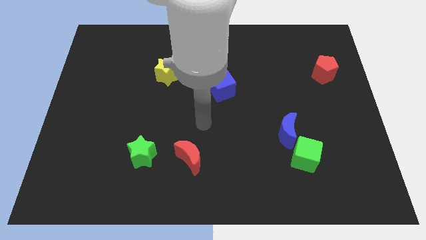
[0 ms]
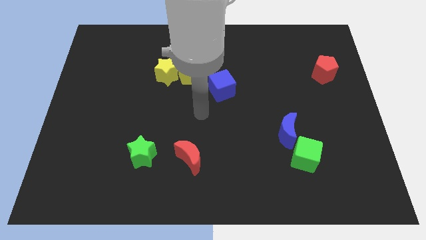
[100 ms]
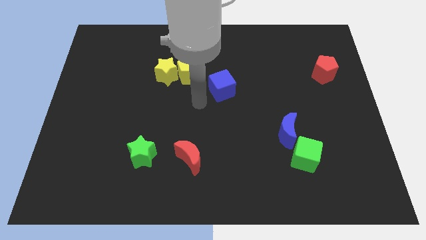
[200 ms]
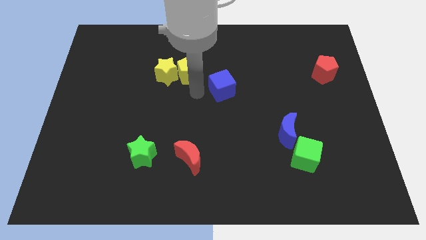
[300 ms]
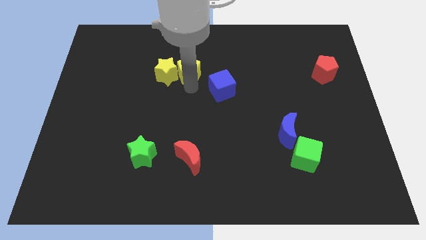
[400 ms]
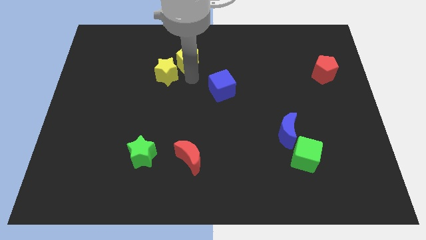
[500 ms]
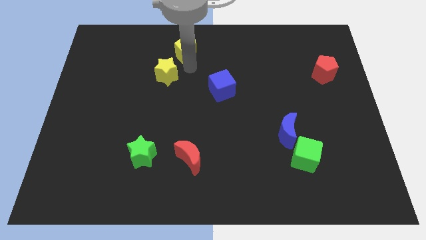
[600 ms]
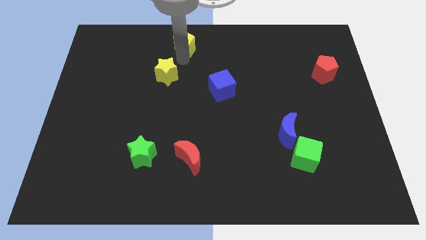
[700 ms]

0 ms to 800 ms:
move the yellow star away from the yellow pentagon

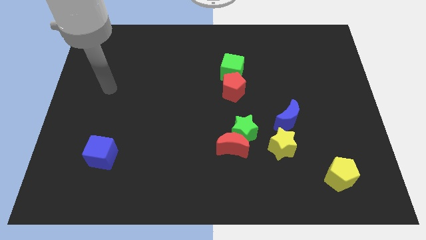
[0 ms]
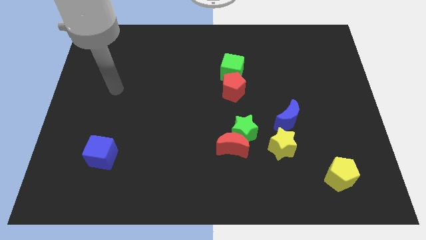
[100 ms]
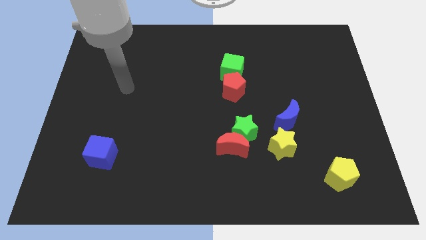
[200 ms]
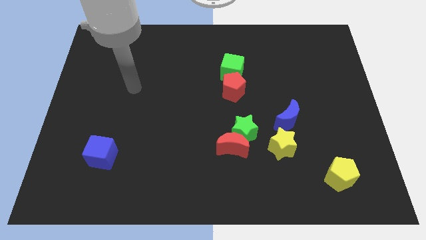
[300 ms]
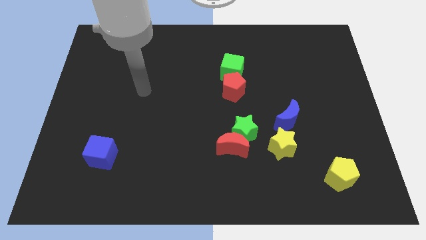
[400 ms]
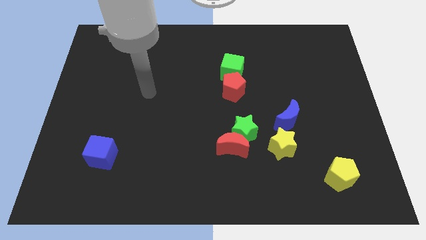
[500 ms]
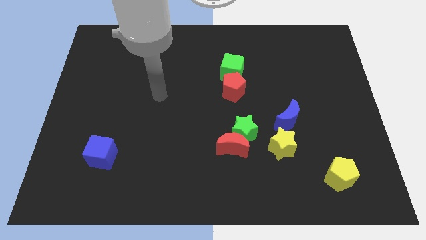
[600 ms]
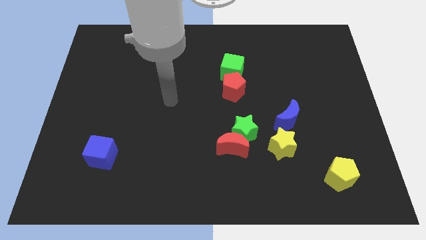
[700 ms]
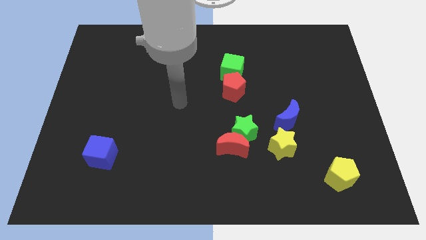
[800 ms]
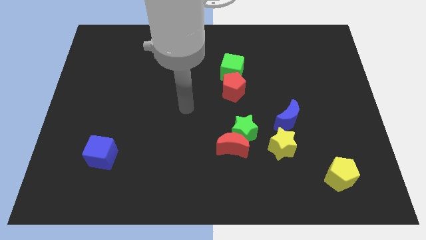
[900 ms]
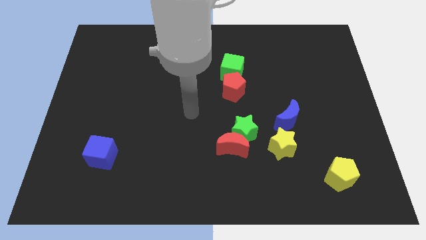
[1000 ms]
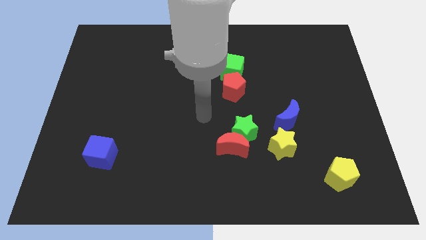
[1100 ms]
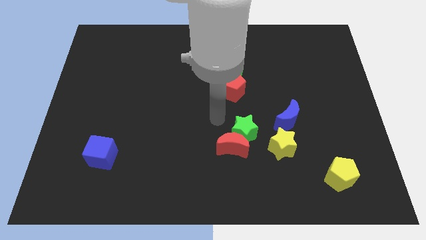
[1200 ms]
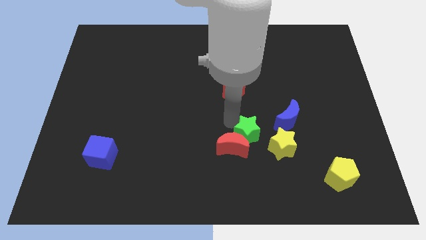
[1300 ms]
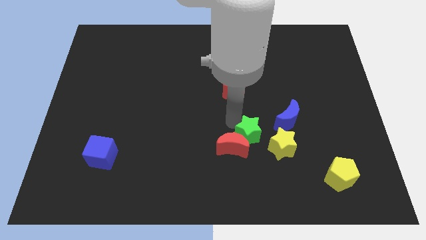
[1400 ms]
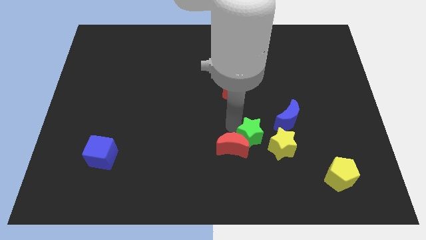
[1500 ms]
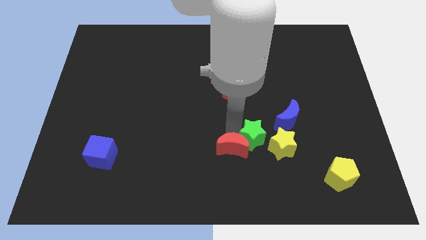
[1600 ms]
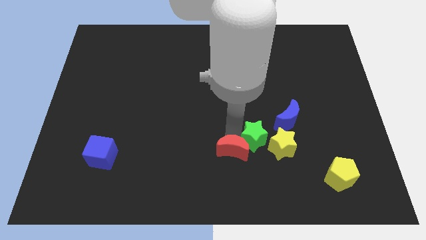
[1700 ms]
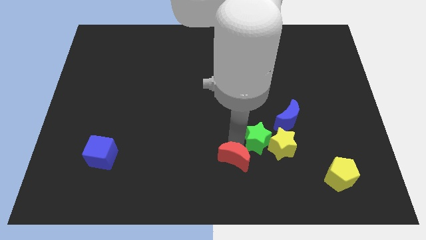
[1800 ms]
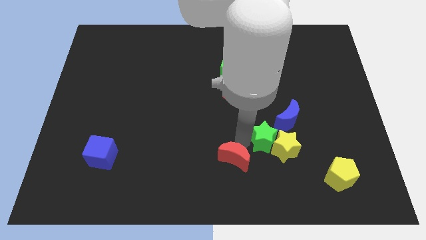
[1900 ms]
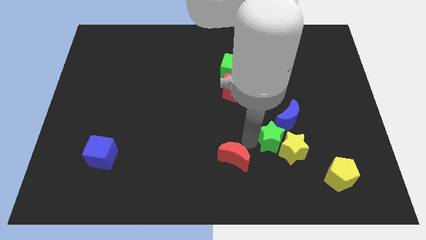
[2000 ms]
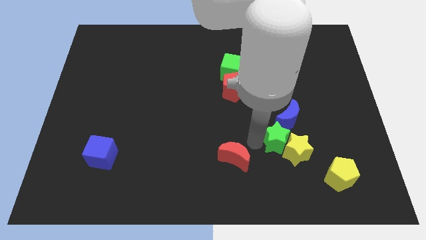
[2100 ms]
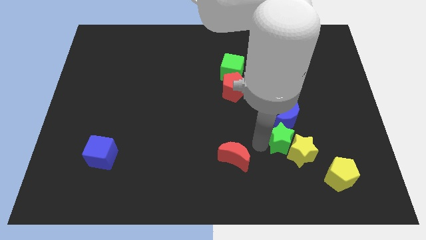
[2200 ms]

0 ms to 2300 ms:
separate the red moon from the green star

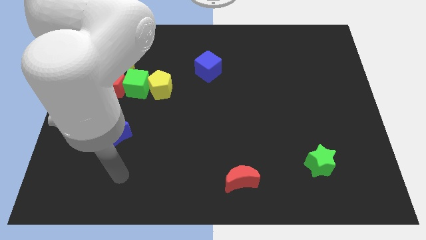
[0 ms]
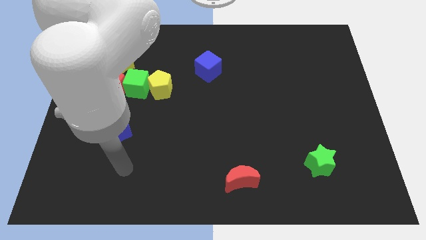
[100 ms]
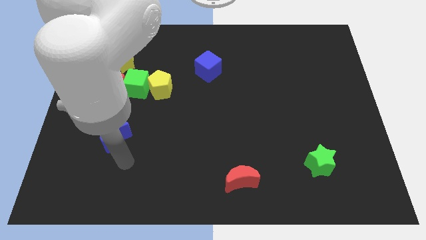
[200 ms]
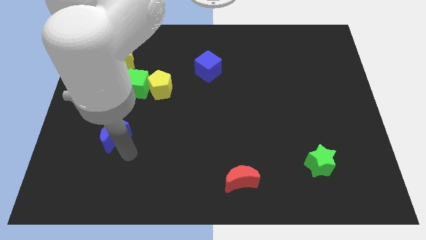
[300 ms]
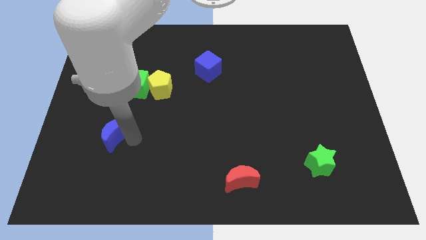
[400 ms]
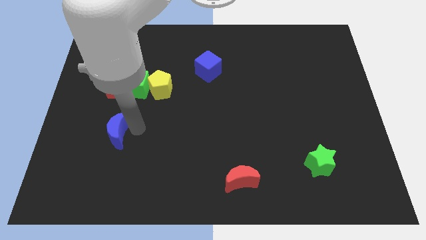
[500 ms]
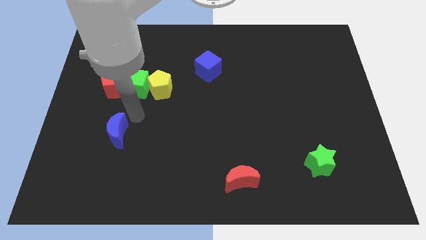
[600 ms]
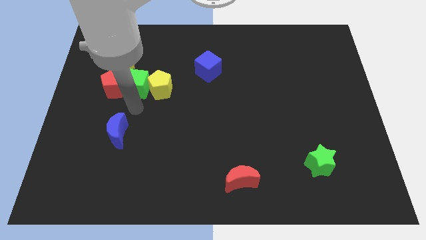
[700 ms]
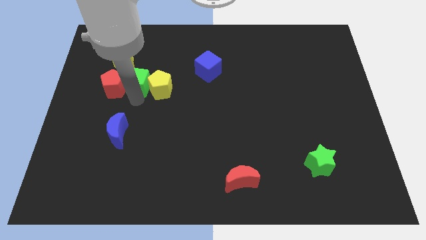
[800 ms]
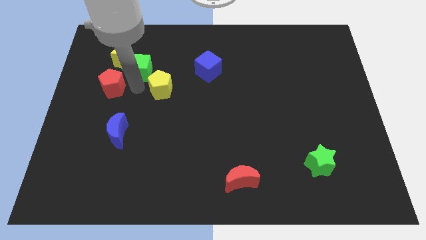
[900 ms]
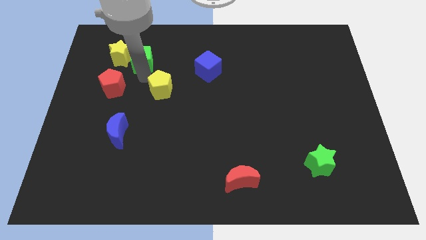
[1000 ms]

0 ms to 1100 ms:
move the yellow pentagon away from the green cube

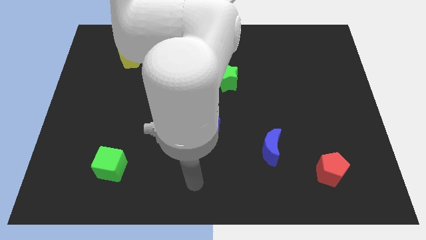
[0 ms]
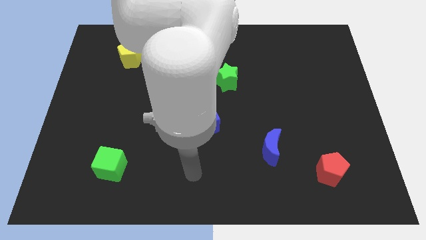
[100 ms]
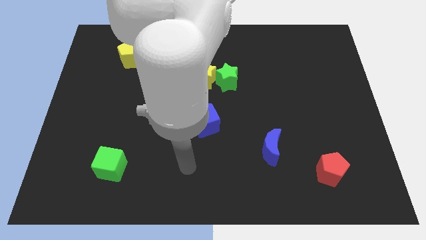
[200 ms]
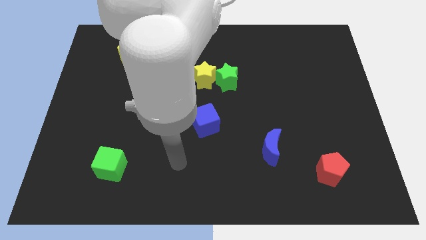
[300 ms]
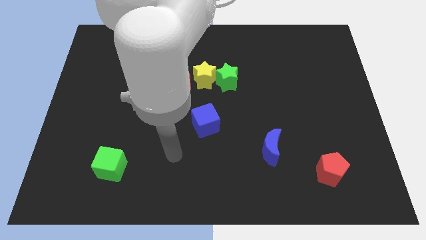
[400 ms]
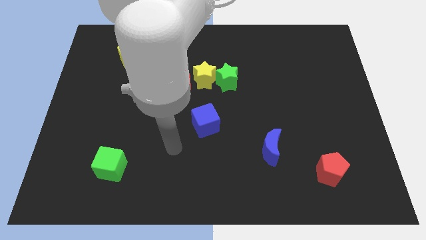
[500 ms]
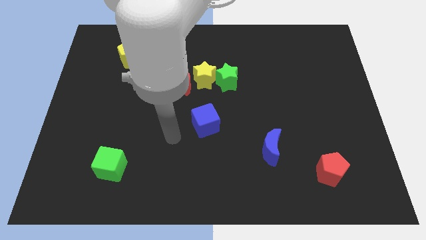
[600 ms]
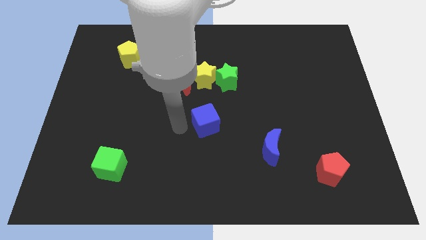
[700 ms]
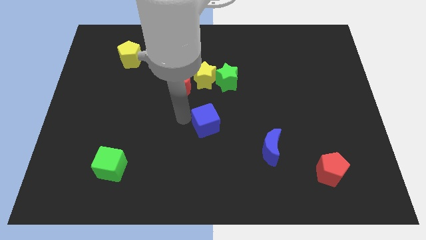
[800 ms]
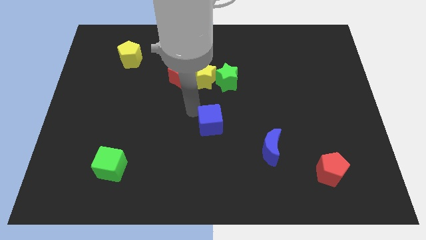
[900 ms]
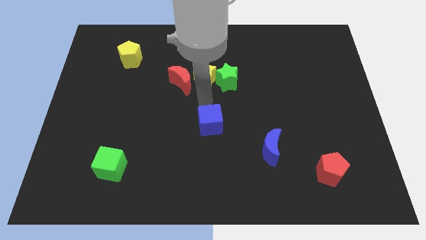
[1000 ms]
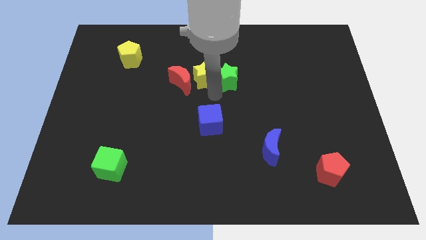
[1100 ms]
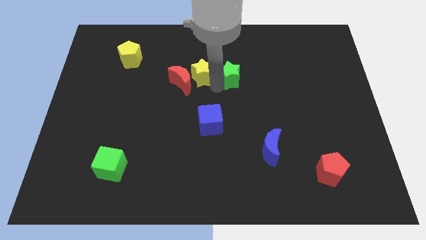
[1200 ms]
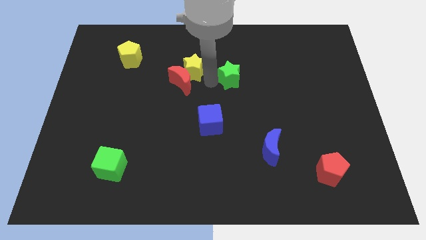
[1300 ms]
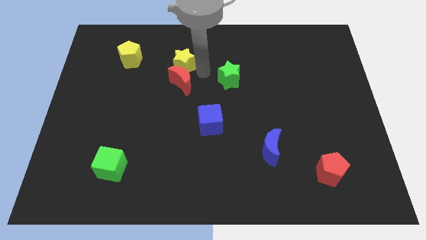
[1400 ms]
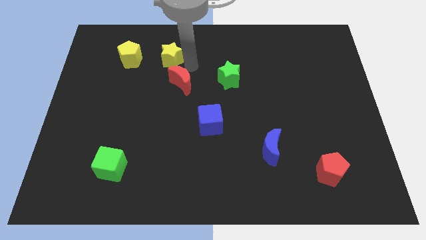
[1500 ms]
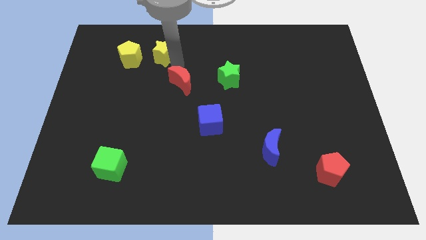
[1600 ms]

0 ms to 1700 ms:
separate the red moon from the yellow star

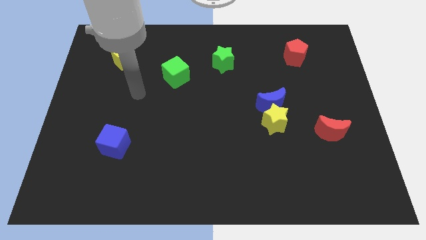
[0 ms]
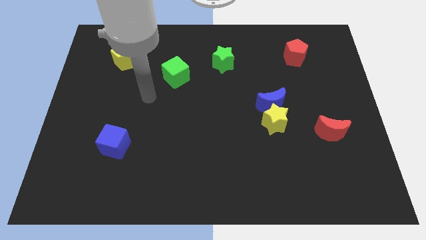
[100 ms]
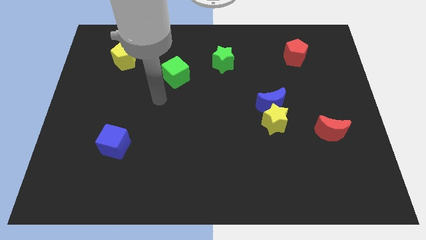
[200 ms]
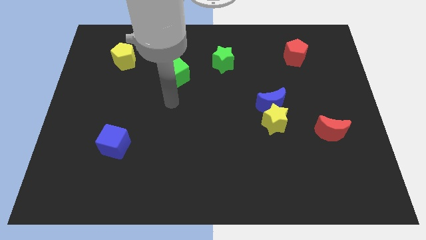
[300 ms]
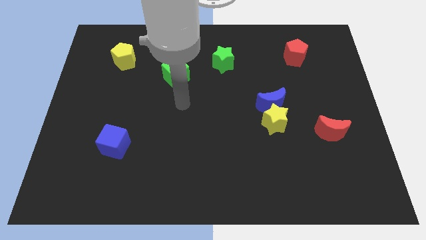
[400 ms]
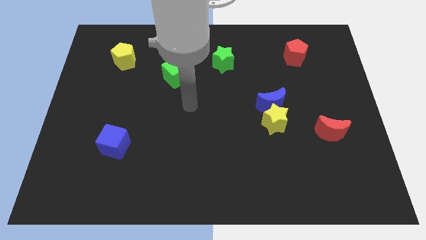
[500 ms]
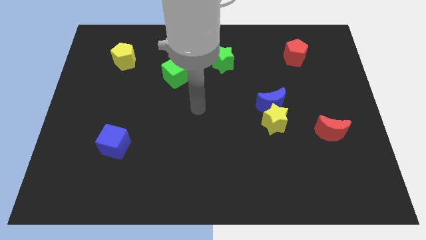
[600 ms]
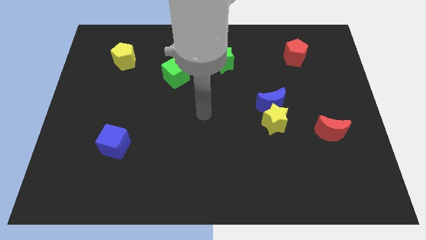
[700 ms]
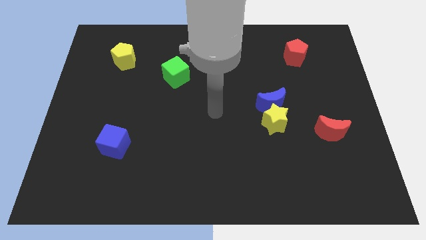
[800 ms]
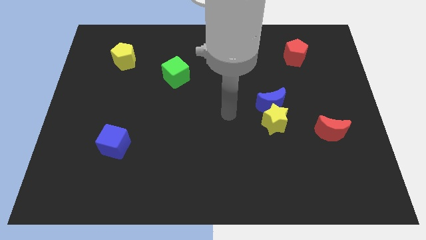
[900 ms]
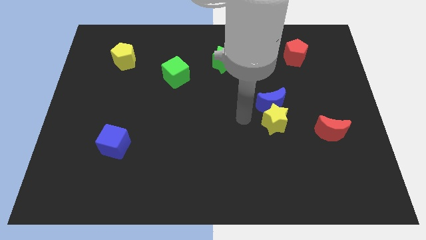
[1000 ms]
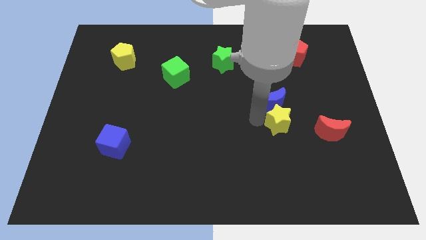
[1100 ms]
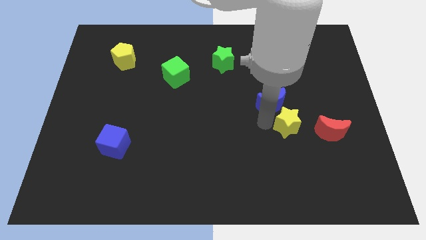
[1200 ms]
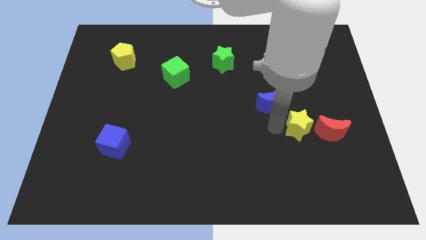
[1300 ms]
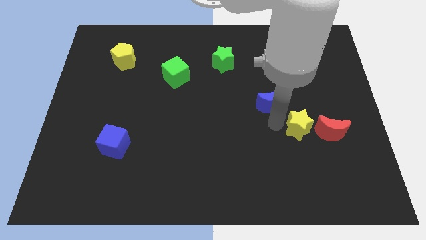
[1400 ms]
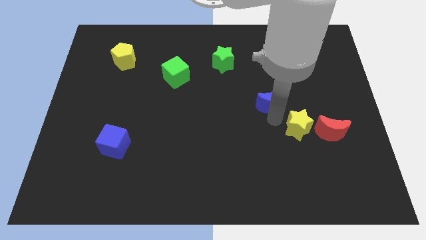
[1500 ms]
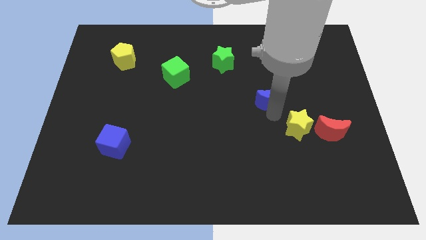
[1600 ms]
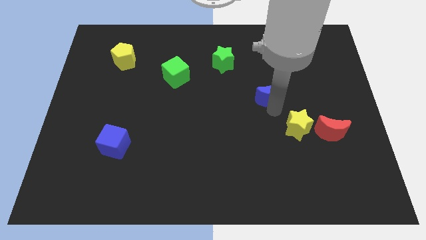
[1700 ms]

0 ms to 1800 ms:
pull the blue moon apart from the yellow star

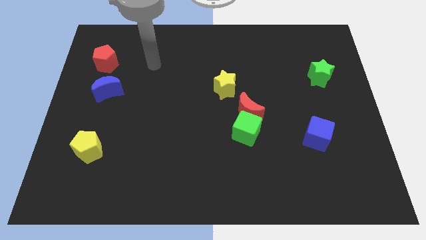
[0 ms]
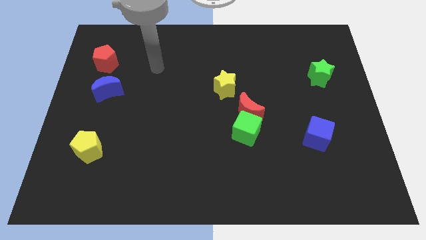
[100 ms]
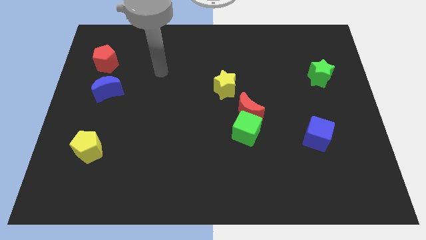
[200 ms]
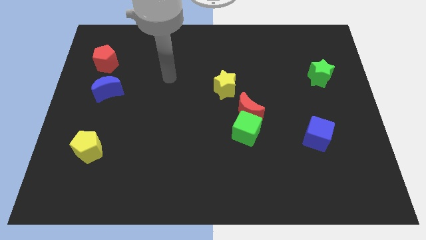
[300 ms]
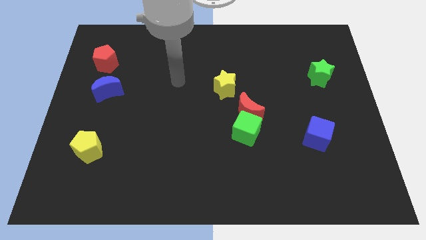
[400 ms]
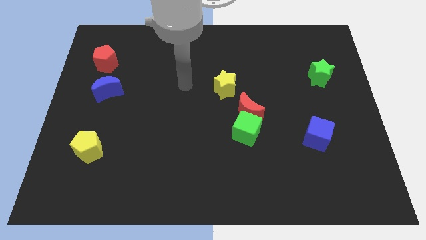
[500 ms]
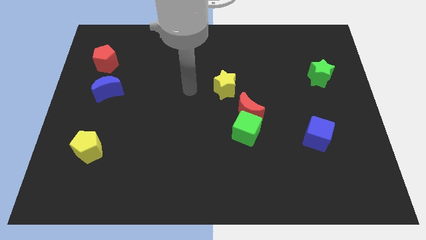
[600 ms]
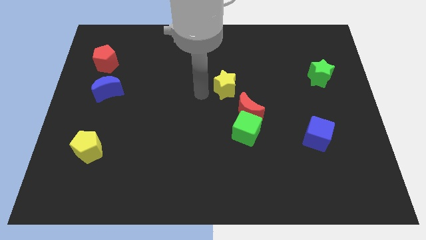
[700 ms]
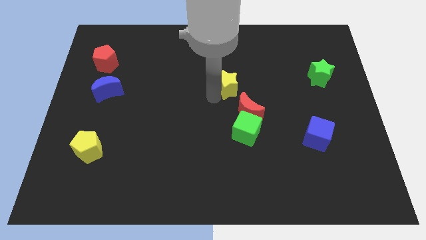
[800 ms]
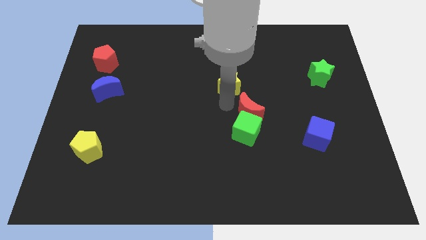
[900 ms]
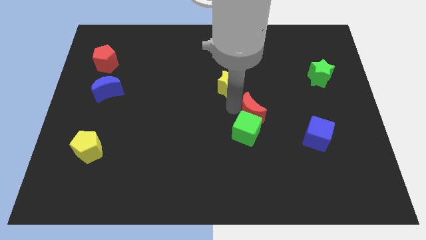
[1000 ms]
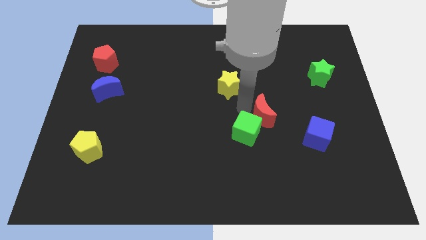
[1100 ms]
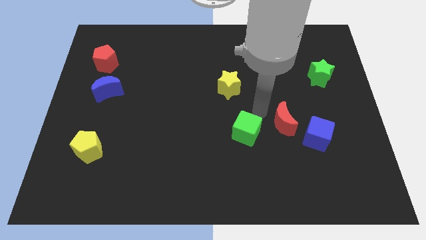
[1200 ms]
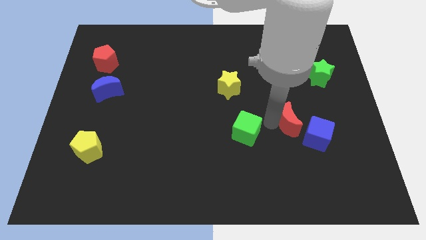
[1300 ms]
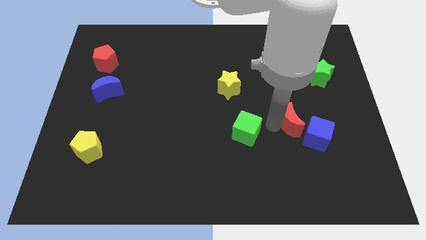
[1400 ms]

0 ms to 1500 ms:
move the green cube away from the red moon
